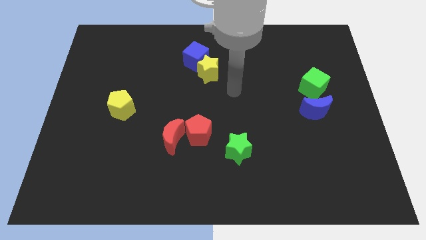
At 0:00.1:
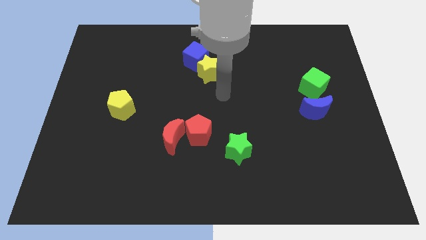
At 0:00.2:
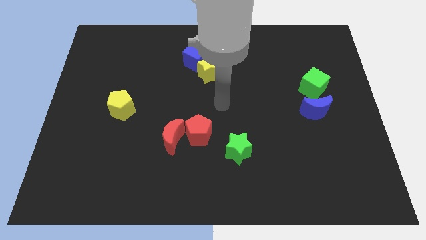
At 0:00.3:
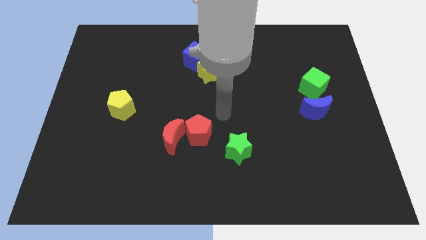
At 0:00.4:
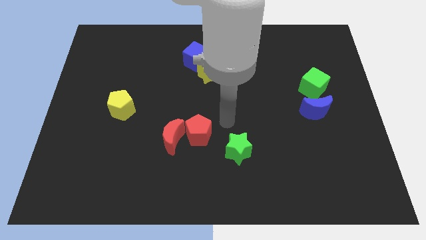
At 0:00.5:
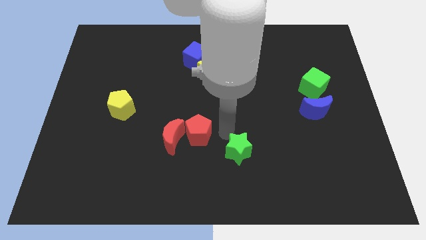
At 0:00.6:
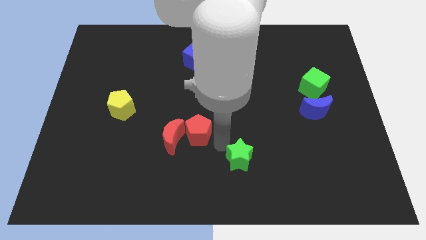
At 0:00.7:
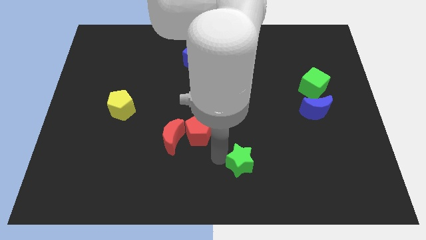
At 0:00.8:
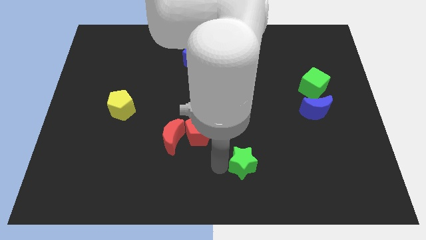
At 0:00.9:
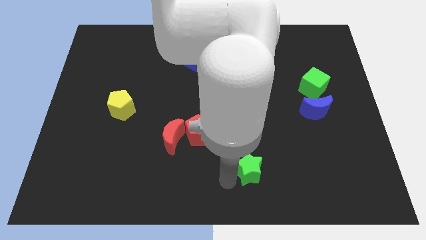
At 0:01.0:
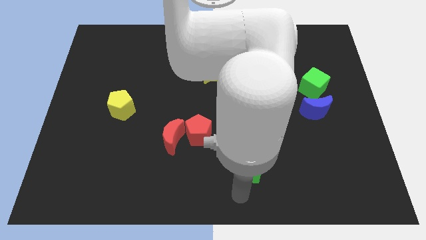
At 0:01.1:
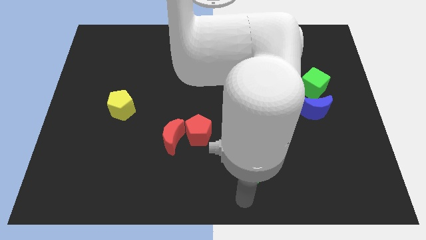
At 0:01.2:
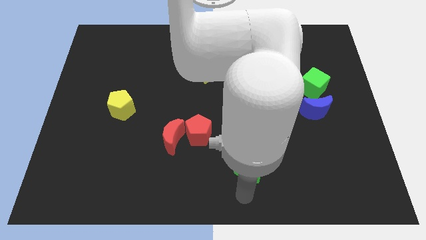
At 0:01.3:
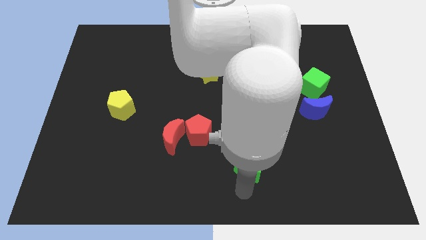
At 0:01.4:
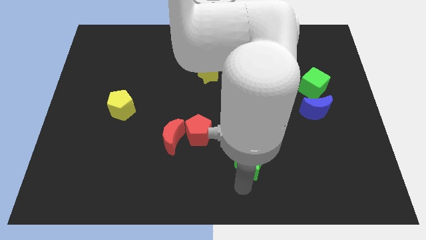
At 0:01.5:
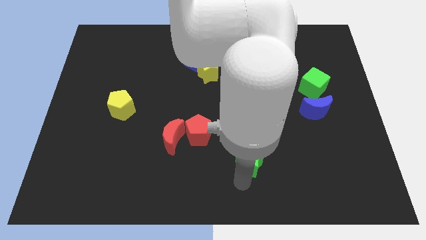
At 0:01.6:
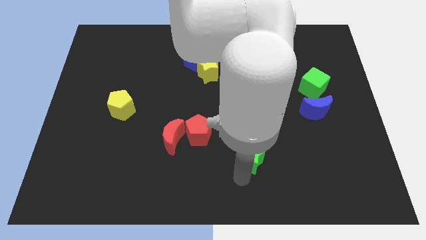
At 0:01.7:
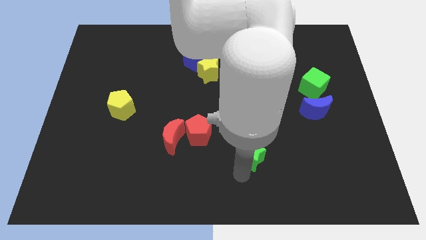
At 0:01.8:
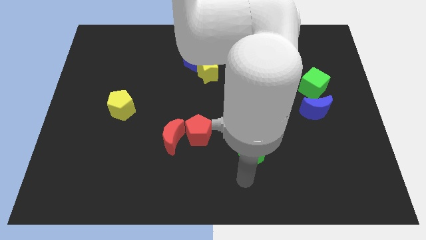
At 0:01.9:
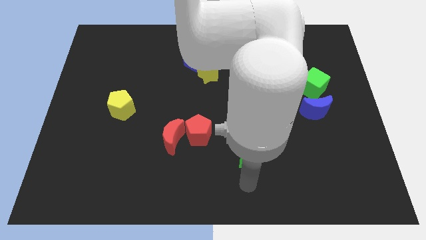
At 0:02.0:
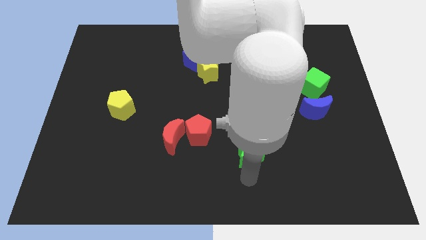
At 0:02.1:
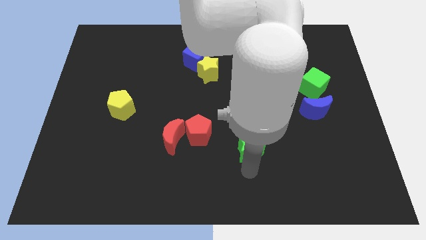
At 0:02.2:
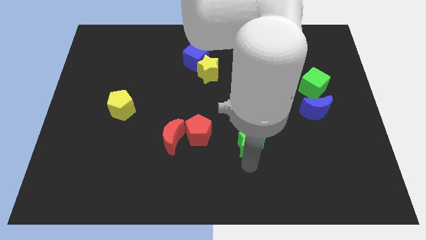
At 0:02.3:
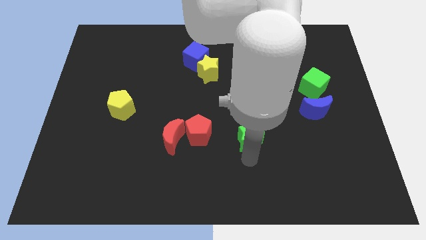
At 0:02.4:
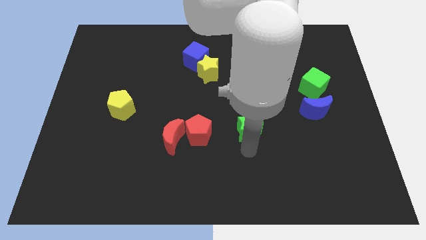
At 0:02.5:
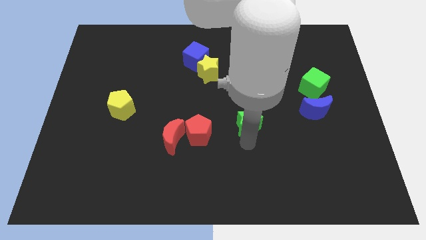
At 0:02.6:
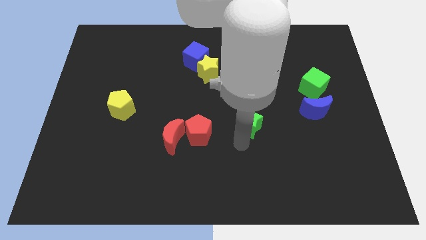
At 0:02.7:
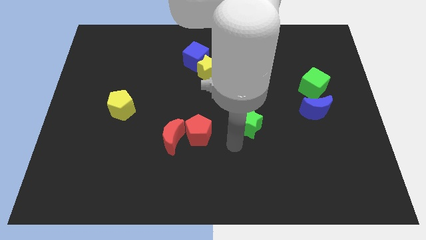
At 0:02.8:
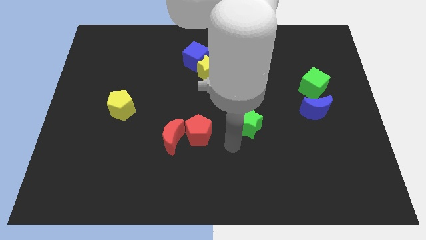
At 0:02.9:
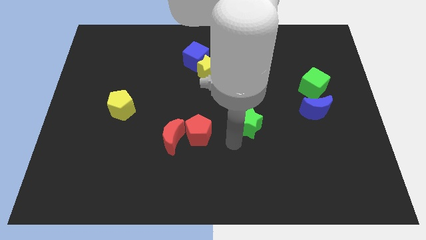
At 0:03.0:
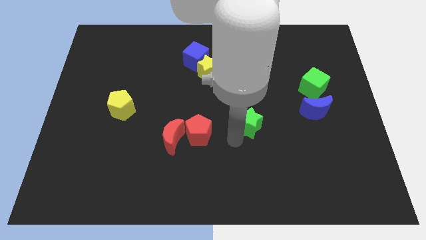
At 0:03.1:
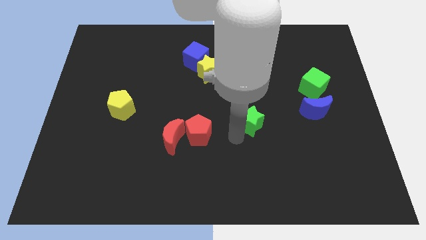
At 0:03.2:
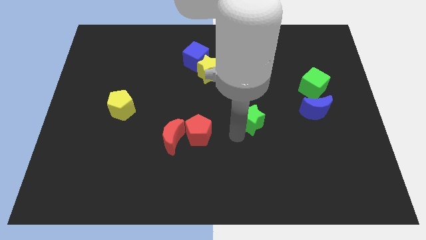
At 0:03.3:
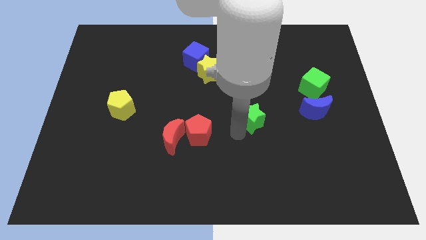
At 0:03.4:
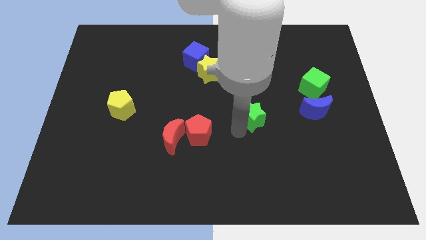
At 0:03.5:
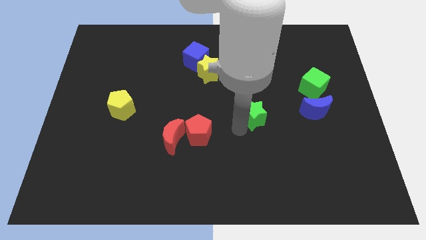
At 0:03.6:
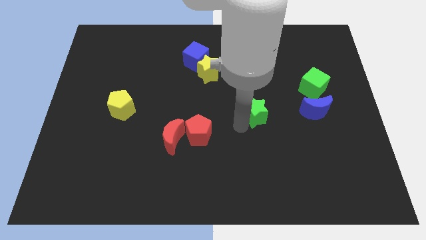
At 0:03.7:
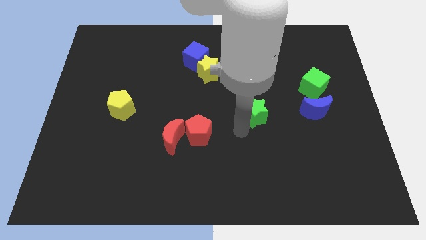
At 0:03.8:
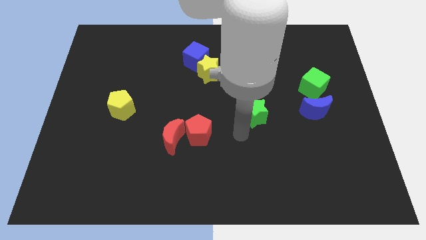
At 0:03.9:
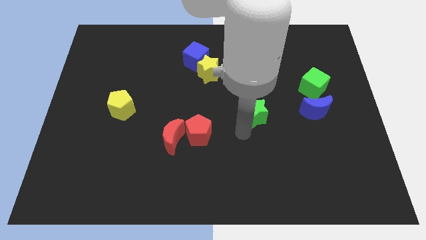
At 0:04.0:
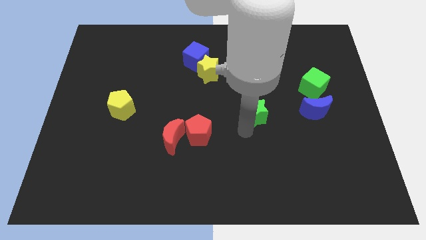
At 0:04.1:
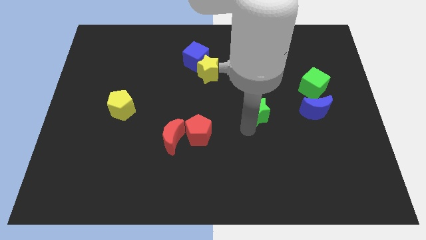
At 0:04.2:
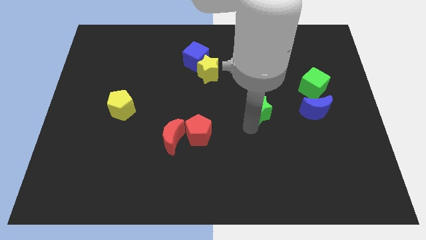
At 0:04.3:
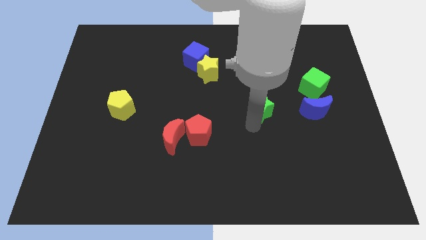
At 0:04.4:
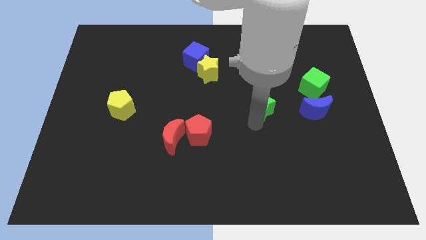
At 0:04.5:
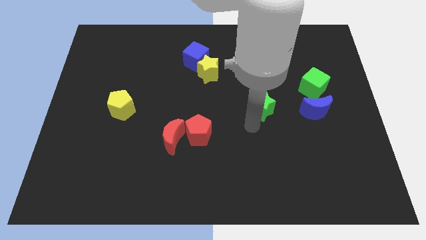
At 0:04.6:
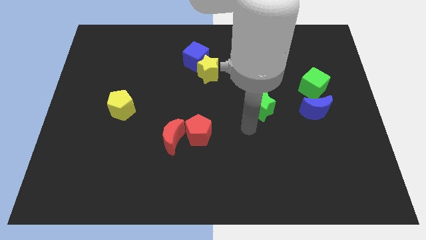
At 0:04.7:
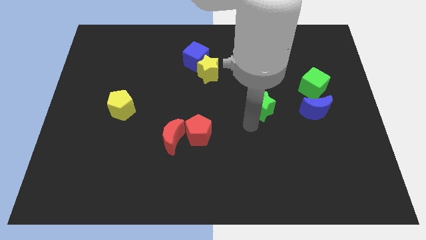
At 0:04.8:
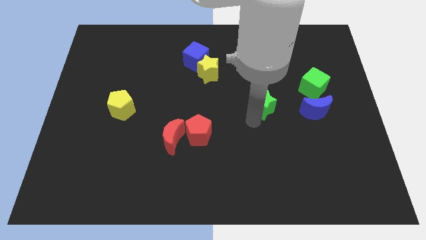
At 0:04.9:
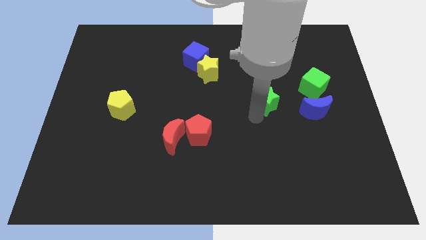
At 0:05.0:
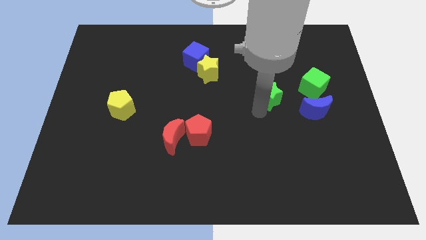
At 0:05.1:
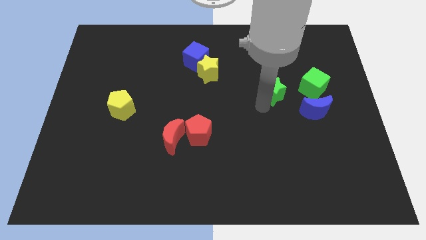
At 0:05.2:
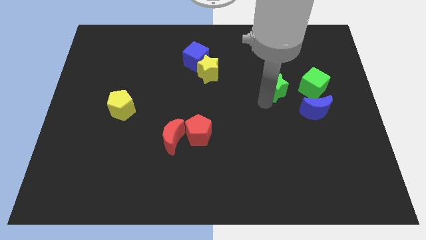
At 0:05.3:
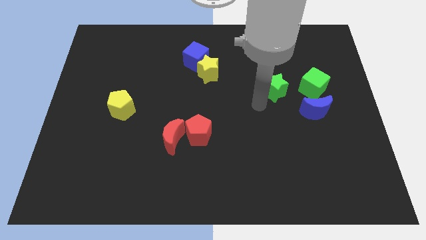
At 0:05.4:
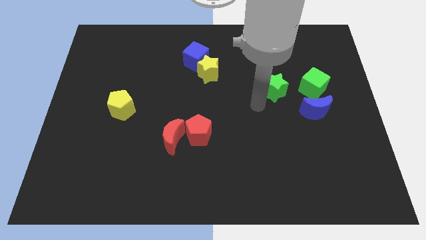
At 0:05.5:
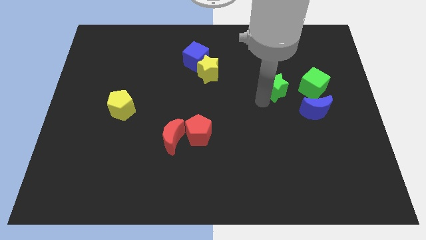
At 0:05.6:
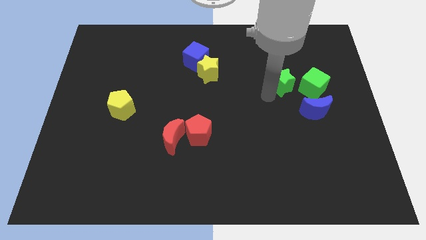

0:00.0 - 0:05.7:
move the green star up and right

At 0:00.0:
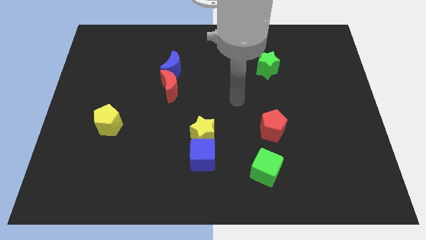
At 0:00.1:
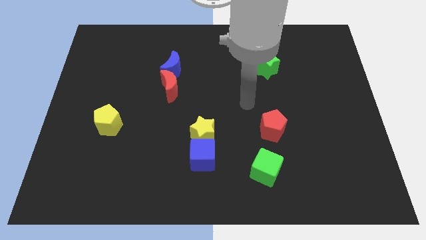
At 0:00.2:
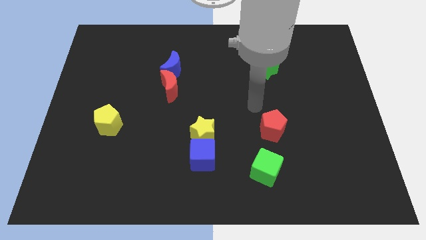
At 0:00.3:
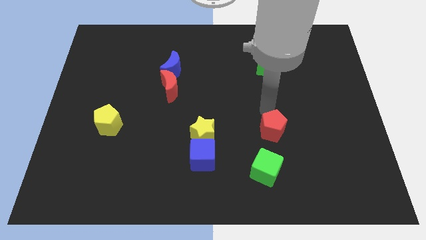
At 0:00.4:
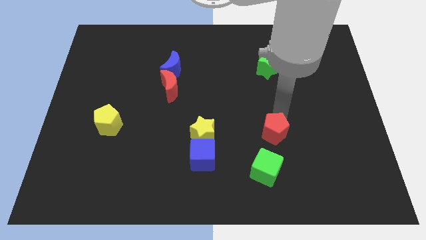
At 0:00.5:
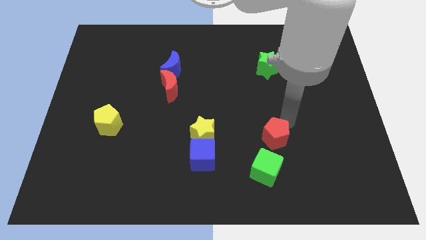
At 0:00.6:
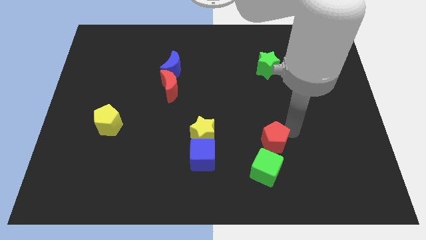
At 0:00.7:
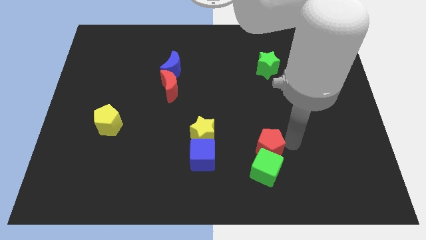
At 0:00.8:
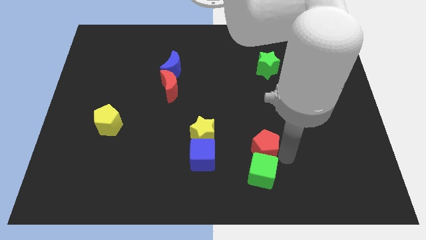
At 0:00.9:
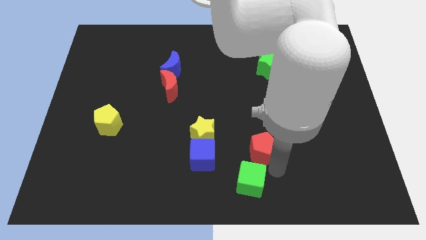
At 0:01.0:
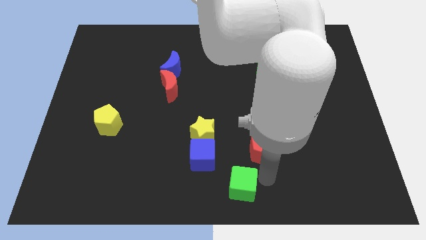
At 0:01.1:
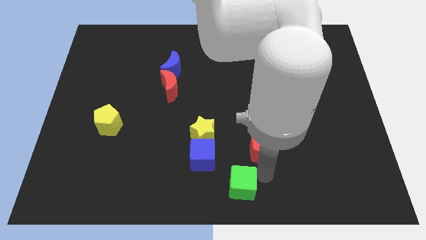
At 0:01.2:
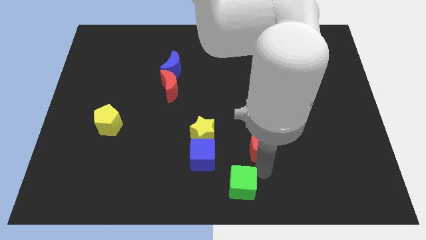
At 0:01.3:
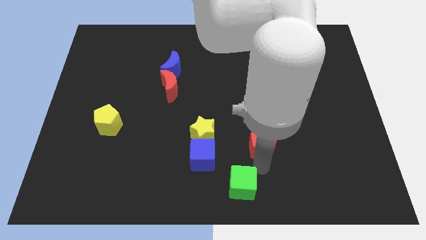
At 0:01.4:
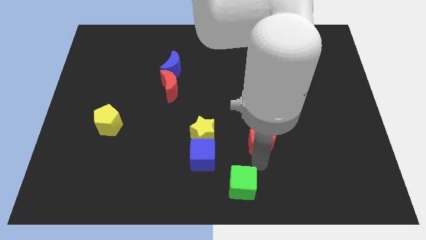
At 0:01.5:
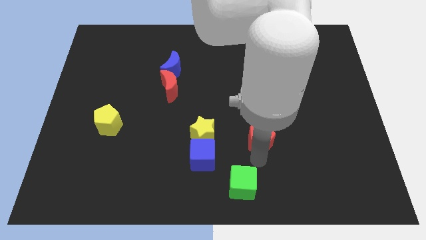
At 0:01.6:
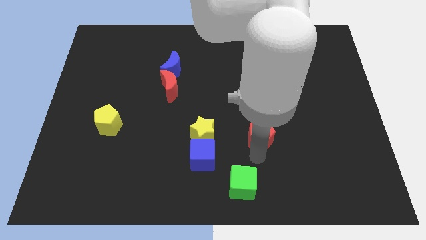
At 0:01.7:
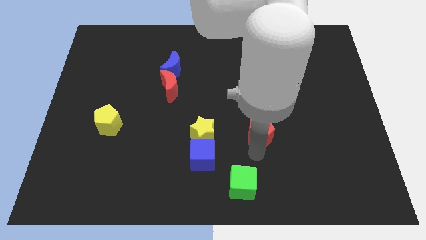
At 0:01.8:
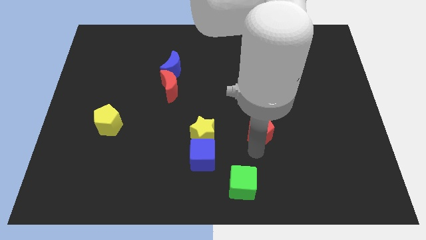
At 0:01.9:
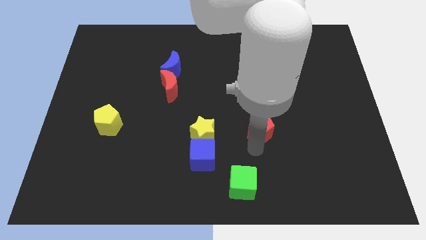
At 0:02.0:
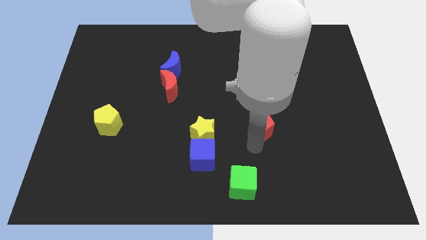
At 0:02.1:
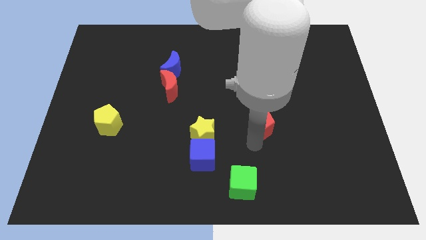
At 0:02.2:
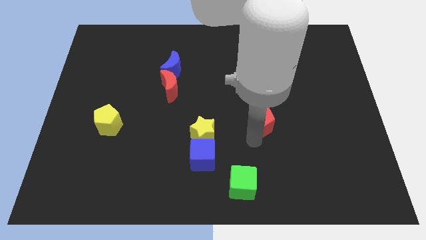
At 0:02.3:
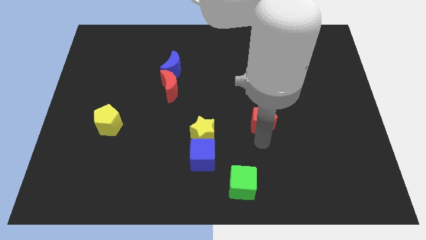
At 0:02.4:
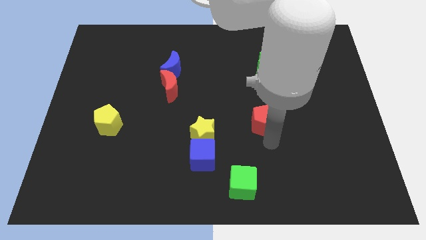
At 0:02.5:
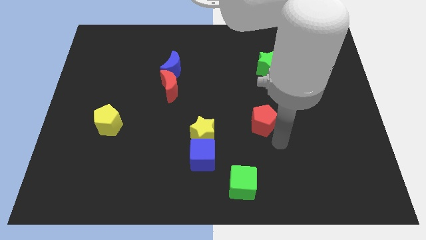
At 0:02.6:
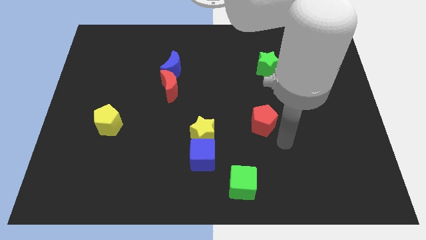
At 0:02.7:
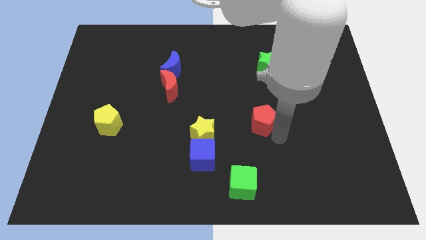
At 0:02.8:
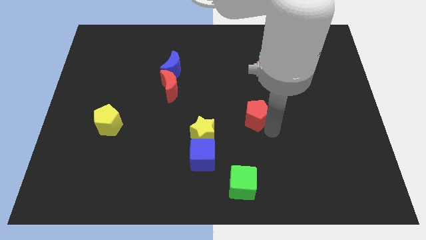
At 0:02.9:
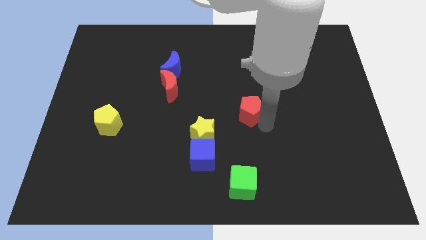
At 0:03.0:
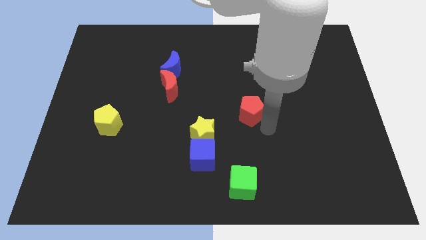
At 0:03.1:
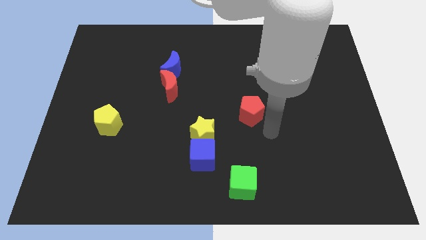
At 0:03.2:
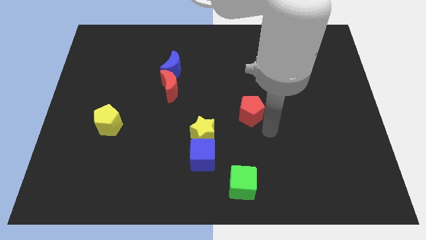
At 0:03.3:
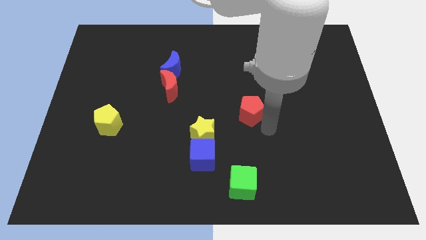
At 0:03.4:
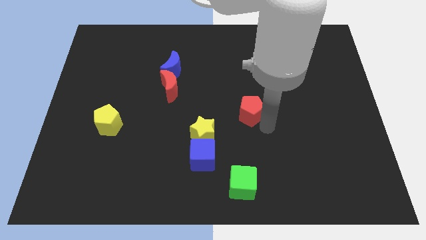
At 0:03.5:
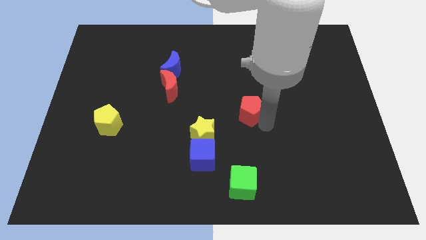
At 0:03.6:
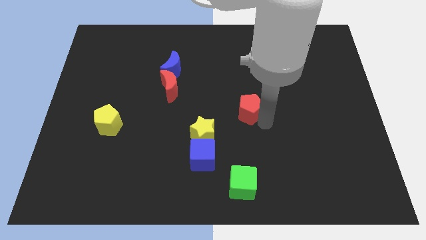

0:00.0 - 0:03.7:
push the red pentagon a bit up and then left
